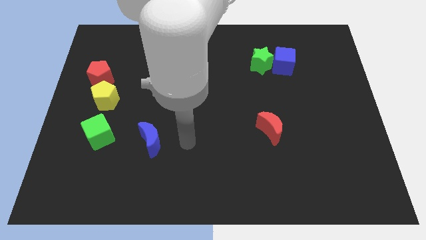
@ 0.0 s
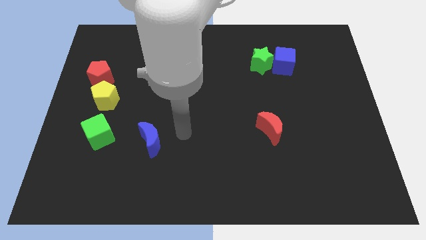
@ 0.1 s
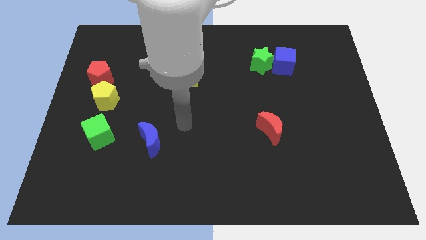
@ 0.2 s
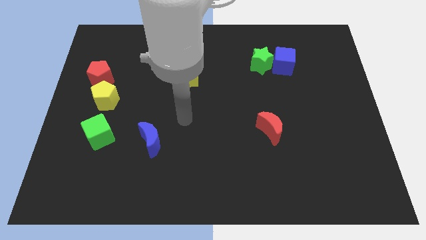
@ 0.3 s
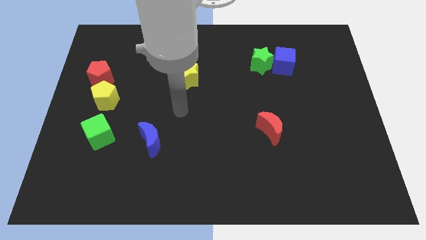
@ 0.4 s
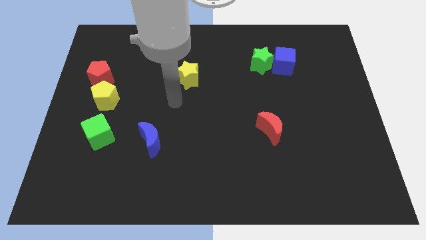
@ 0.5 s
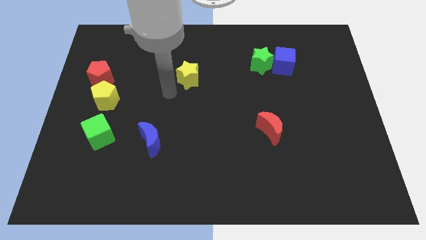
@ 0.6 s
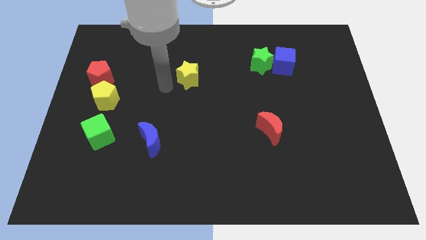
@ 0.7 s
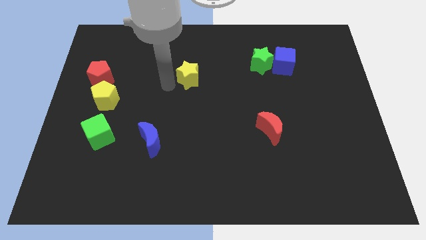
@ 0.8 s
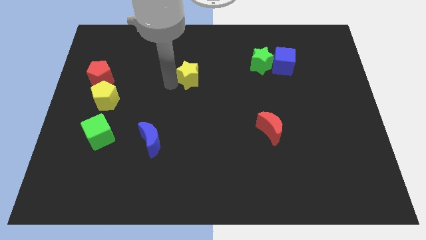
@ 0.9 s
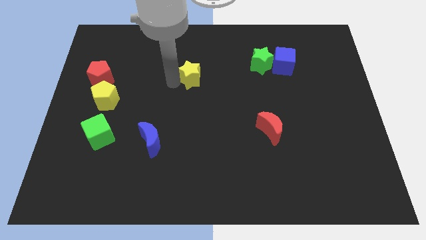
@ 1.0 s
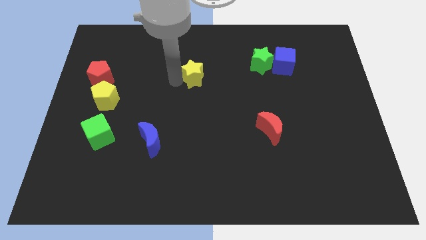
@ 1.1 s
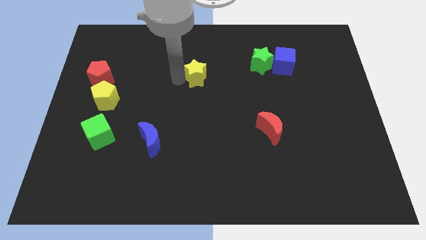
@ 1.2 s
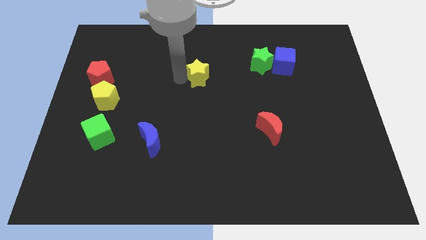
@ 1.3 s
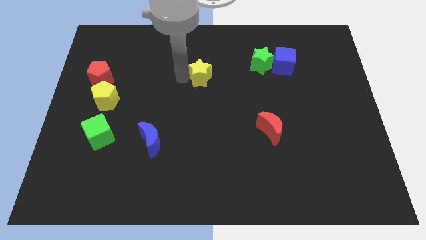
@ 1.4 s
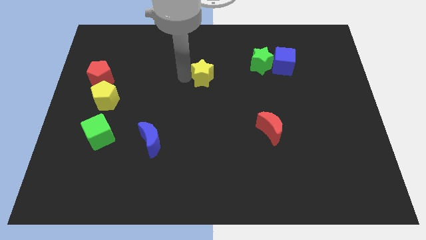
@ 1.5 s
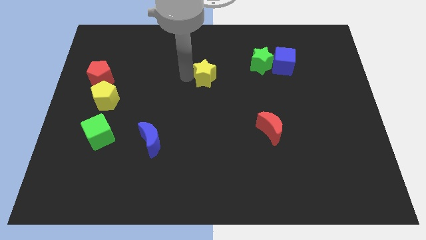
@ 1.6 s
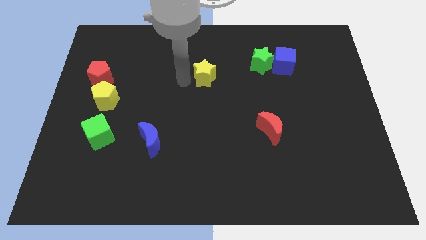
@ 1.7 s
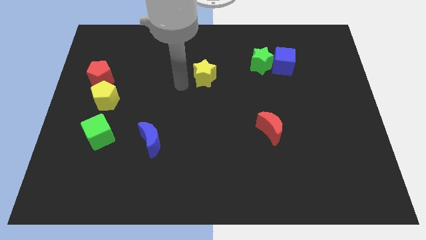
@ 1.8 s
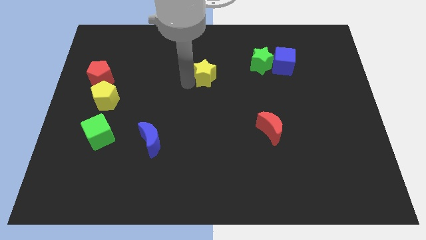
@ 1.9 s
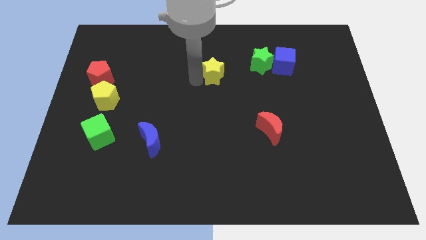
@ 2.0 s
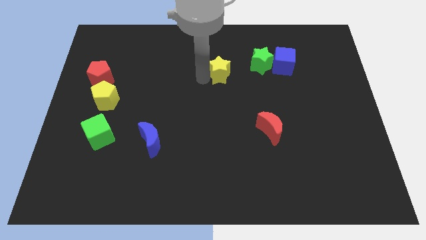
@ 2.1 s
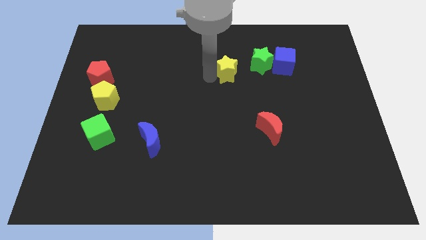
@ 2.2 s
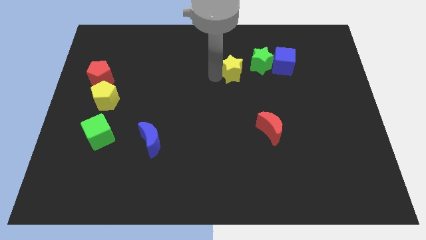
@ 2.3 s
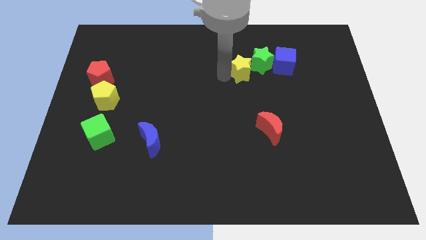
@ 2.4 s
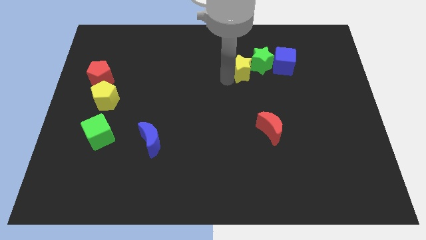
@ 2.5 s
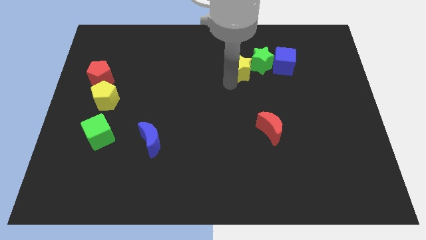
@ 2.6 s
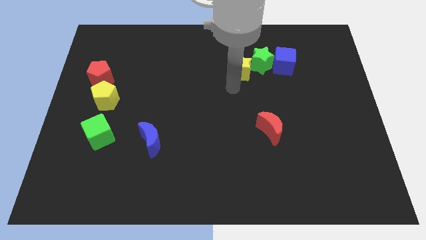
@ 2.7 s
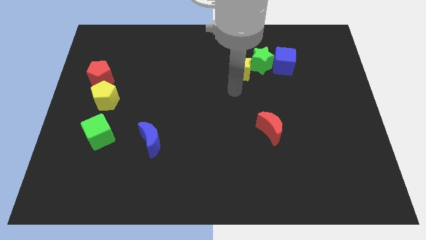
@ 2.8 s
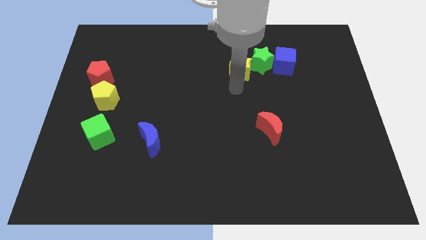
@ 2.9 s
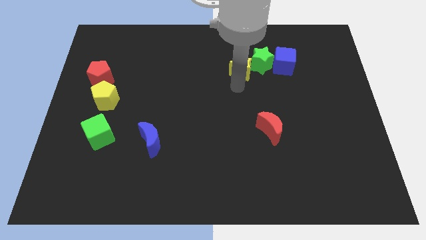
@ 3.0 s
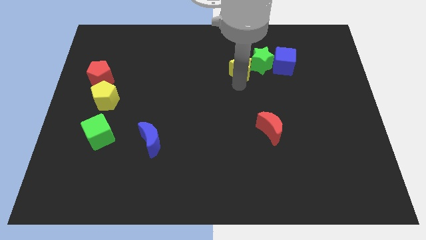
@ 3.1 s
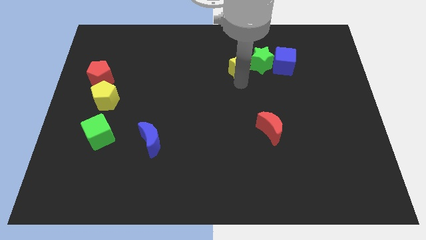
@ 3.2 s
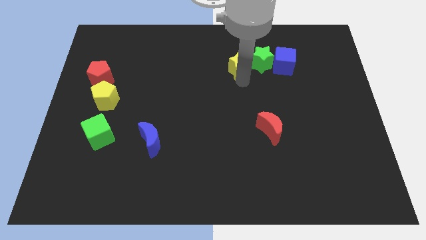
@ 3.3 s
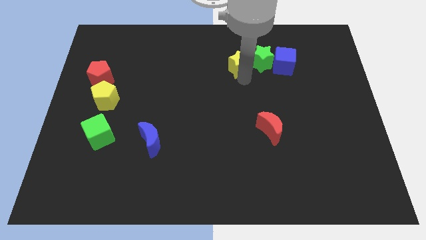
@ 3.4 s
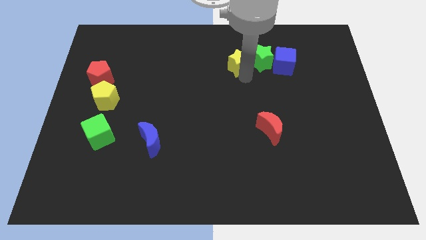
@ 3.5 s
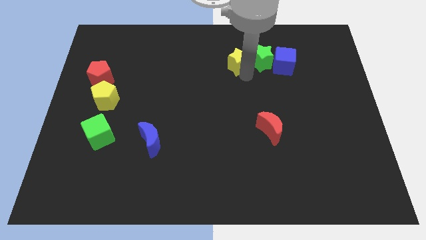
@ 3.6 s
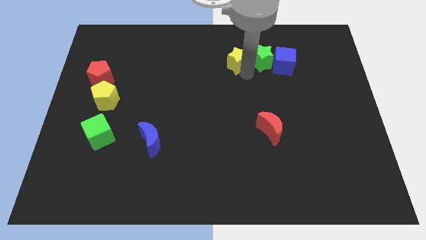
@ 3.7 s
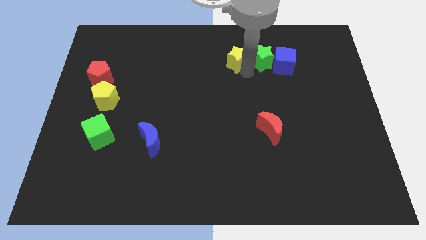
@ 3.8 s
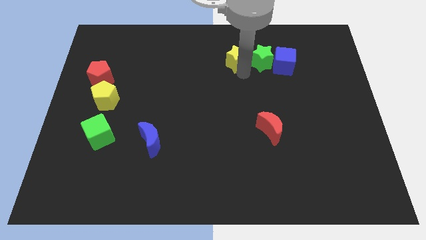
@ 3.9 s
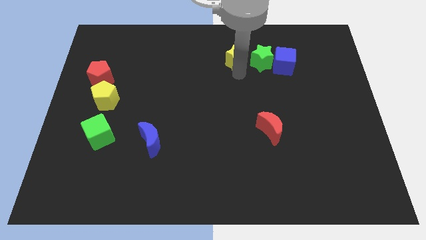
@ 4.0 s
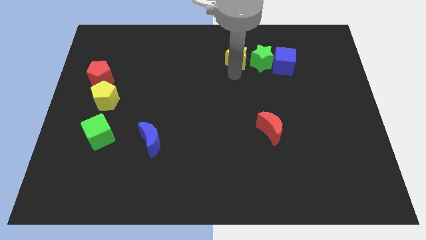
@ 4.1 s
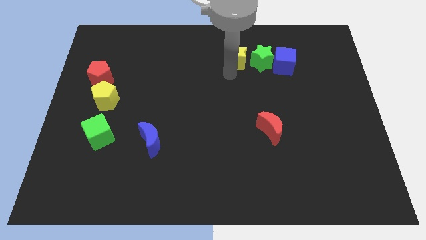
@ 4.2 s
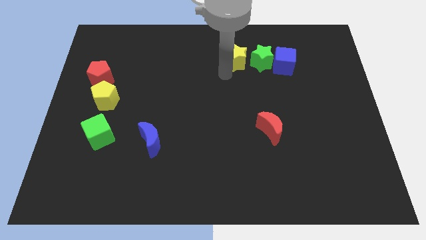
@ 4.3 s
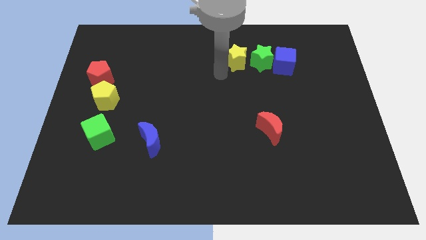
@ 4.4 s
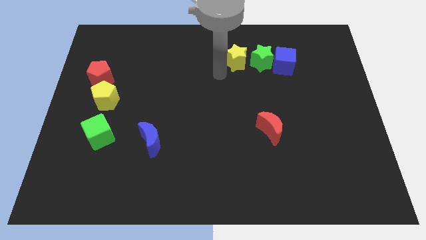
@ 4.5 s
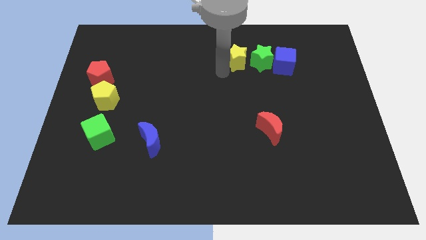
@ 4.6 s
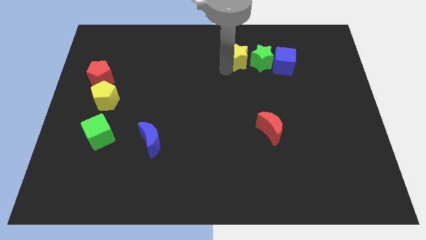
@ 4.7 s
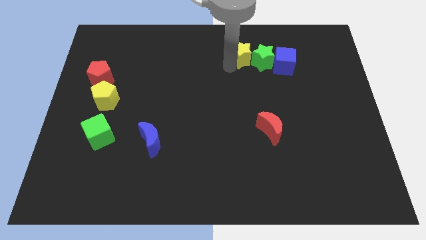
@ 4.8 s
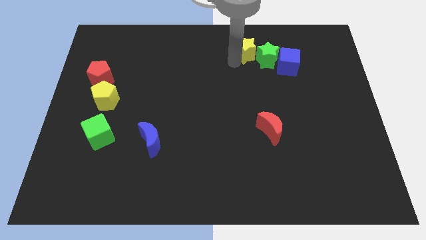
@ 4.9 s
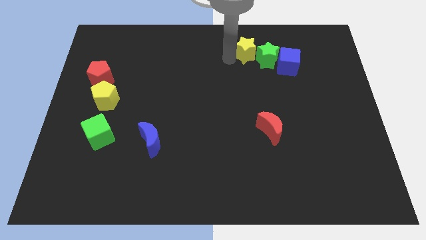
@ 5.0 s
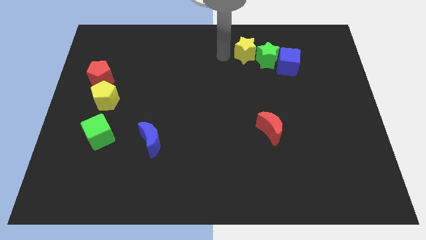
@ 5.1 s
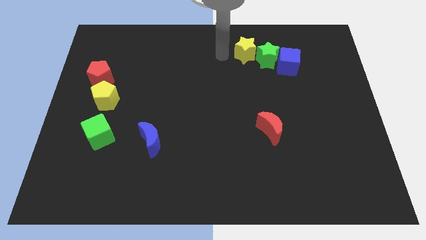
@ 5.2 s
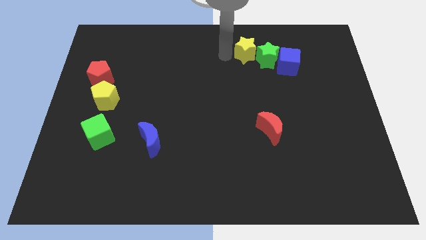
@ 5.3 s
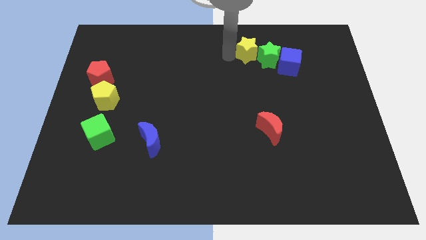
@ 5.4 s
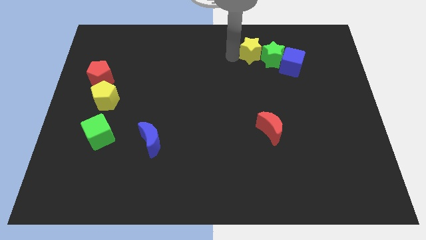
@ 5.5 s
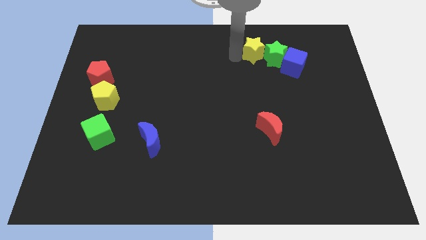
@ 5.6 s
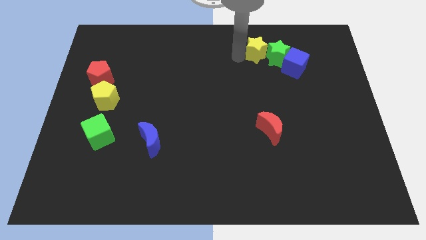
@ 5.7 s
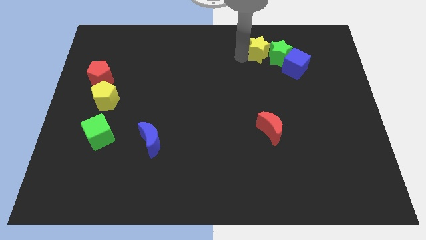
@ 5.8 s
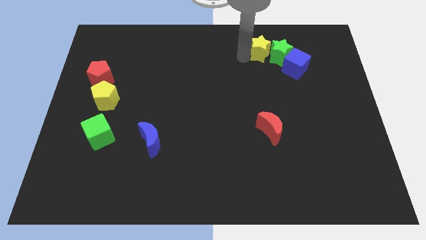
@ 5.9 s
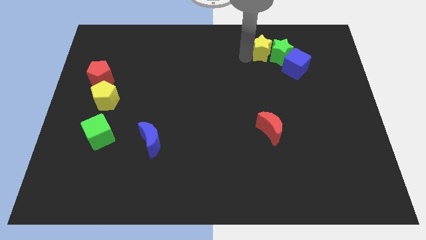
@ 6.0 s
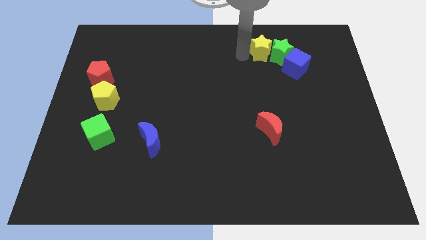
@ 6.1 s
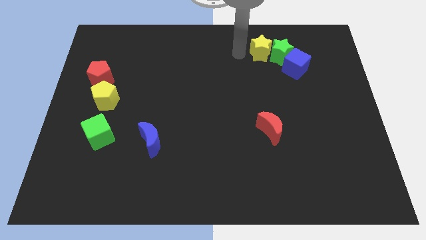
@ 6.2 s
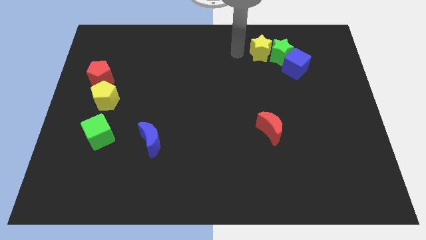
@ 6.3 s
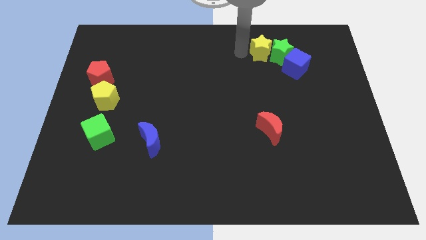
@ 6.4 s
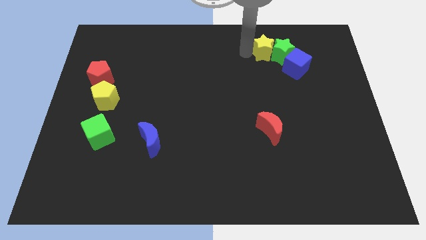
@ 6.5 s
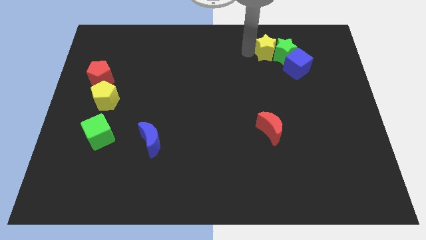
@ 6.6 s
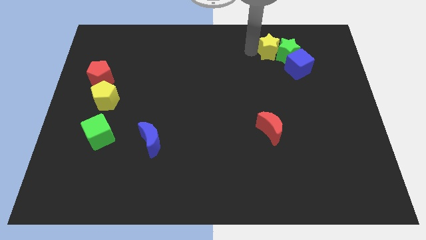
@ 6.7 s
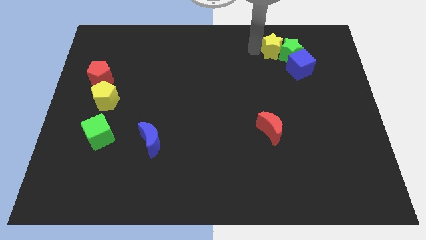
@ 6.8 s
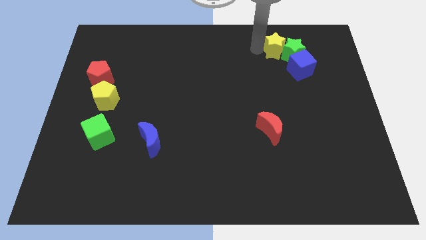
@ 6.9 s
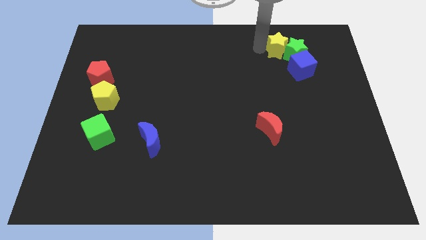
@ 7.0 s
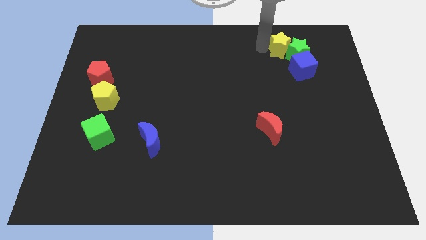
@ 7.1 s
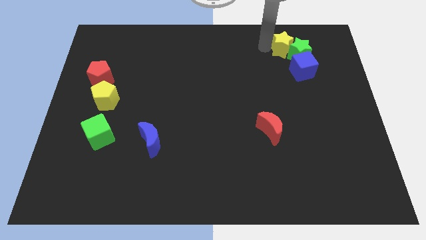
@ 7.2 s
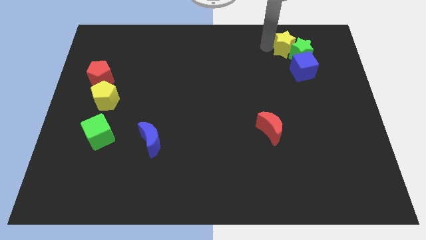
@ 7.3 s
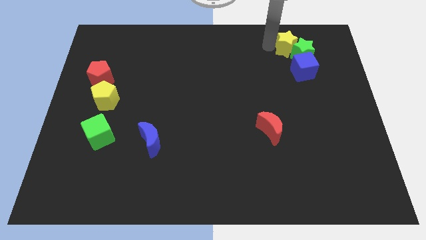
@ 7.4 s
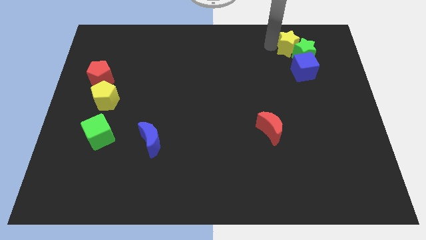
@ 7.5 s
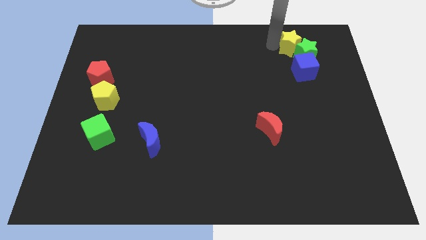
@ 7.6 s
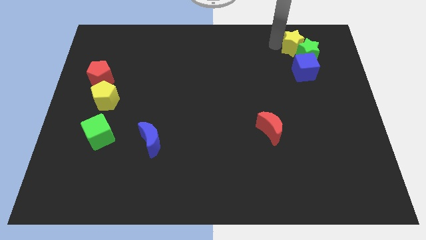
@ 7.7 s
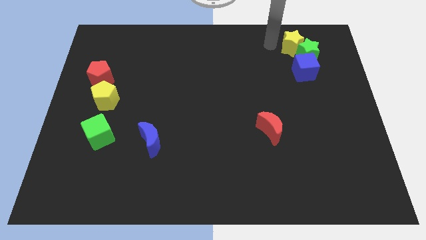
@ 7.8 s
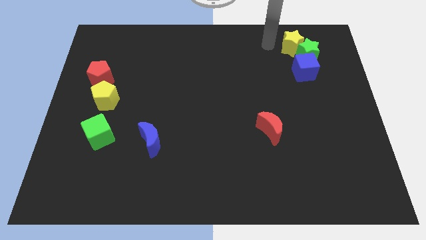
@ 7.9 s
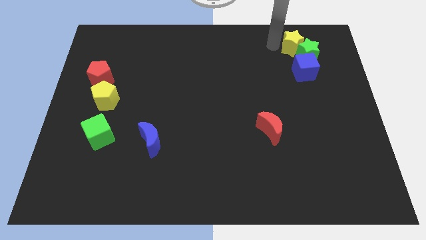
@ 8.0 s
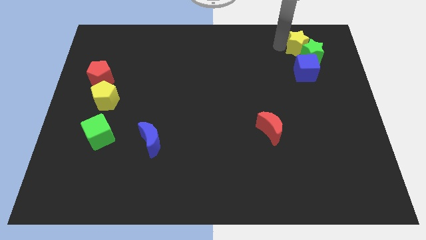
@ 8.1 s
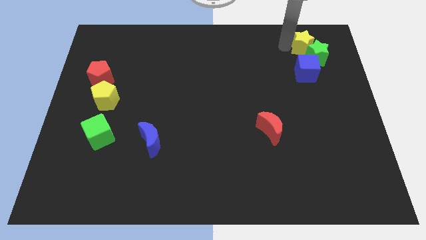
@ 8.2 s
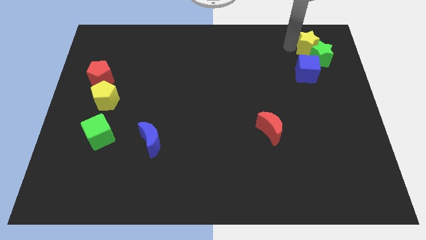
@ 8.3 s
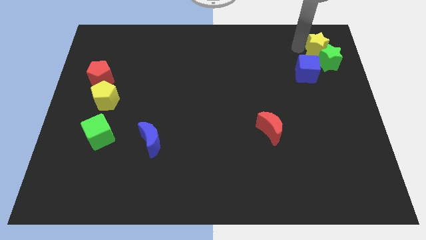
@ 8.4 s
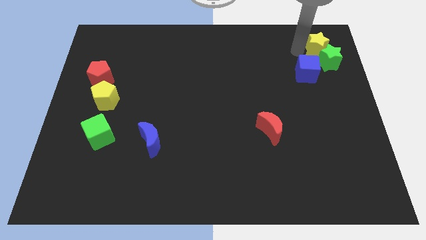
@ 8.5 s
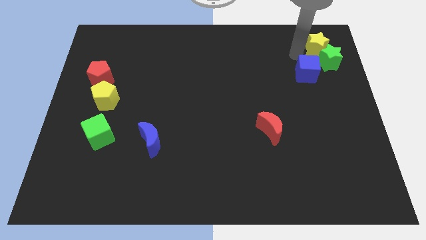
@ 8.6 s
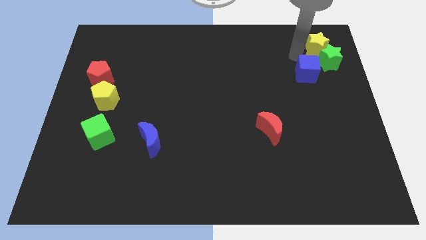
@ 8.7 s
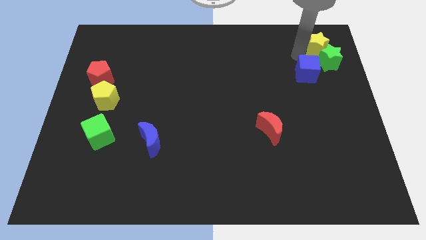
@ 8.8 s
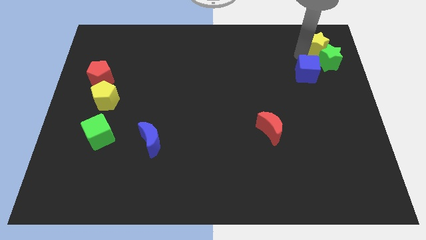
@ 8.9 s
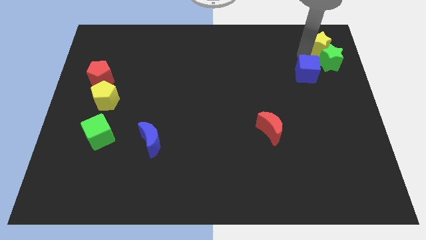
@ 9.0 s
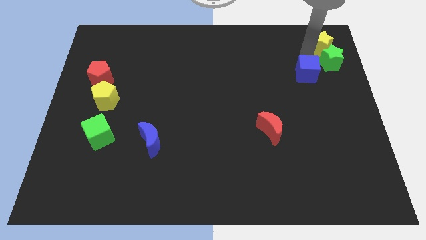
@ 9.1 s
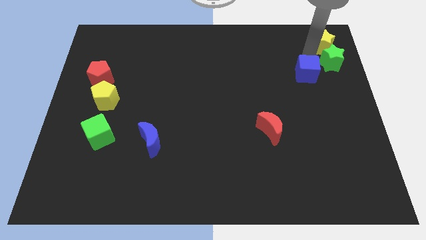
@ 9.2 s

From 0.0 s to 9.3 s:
move the yellow star to the top right of the board
